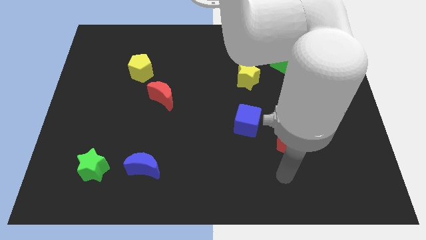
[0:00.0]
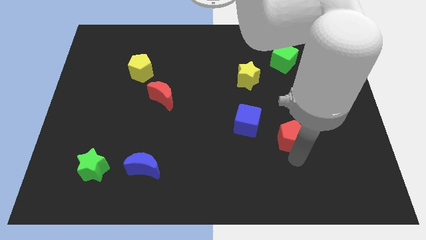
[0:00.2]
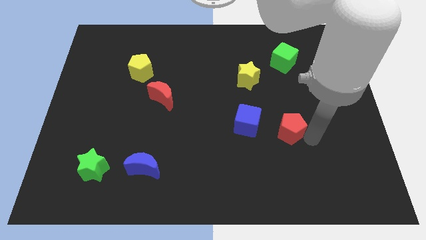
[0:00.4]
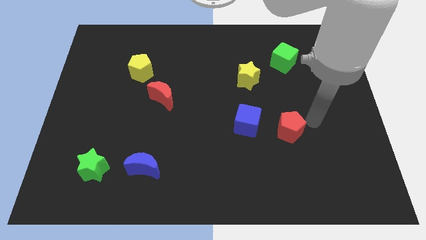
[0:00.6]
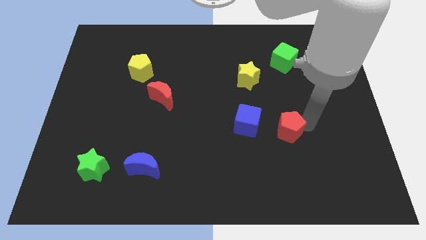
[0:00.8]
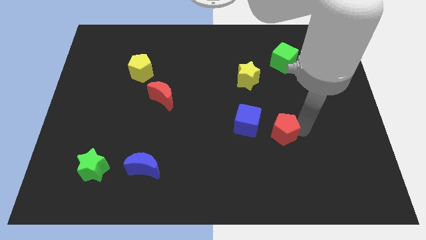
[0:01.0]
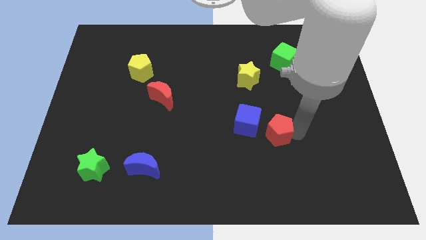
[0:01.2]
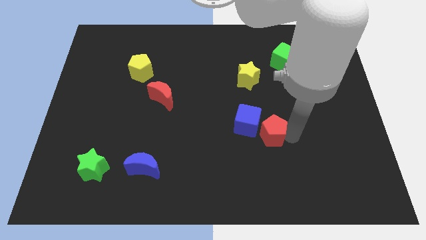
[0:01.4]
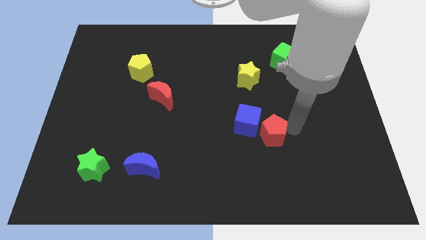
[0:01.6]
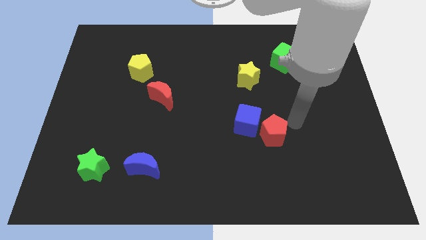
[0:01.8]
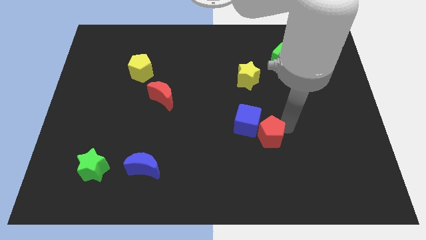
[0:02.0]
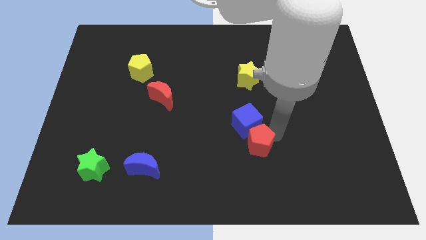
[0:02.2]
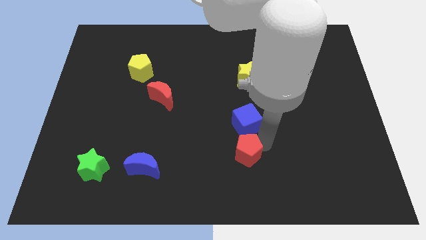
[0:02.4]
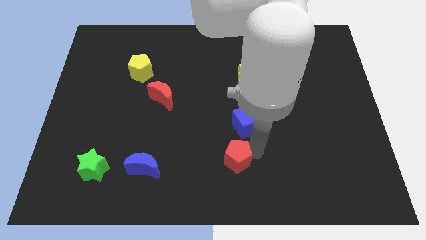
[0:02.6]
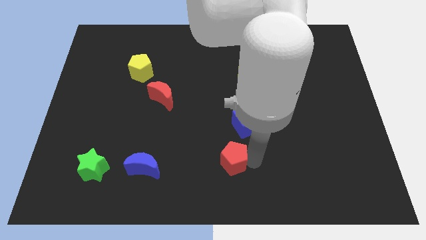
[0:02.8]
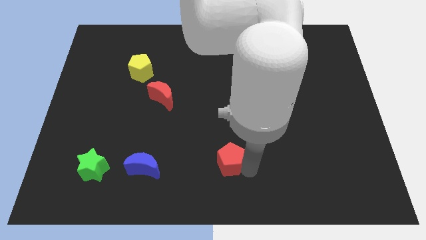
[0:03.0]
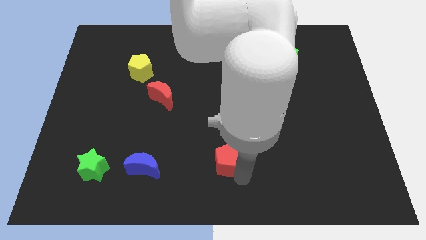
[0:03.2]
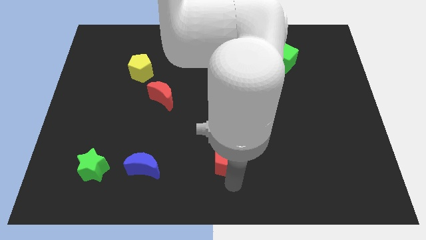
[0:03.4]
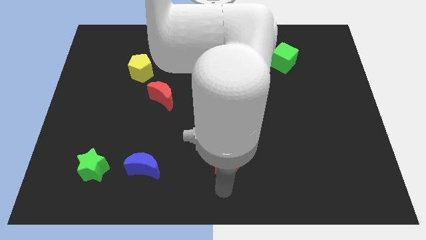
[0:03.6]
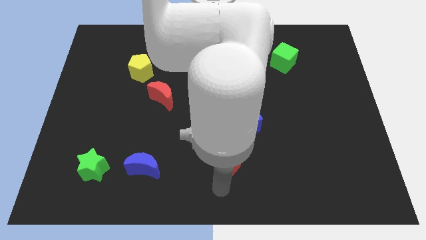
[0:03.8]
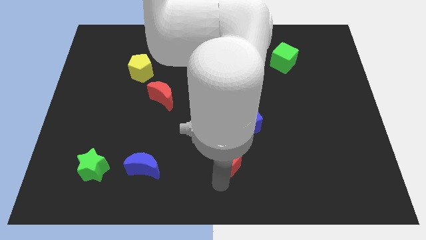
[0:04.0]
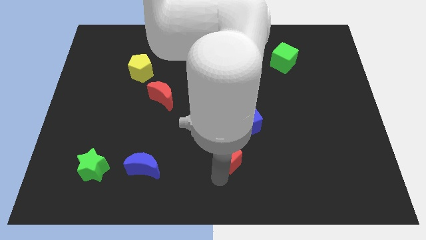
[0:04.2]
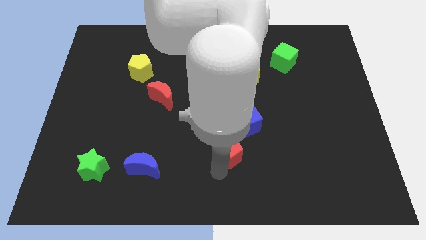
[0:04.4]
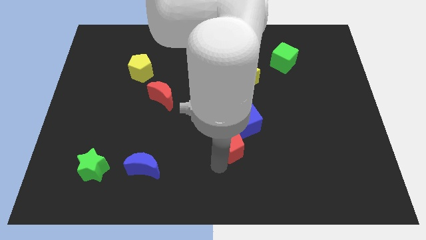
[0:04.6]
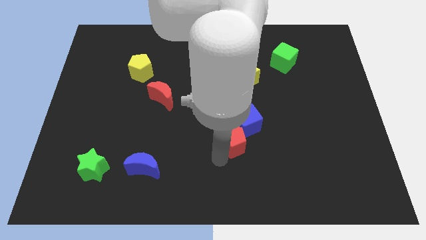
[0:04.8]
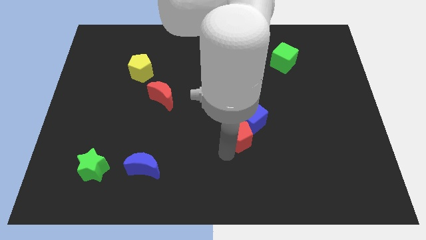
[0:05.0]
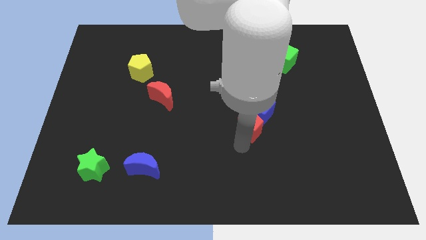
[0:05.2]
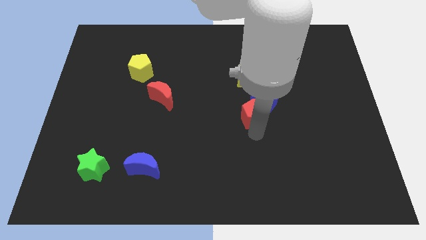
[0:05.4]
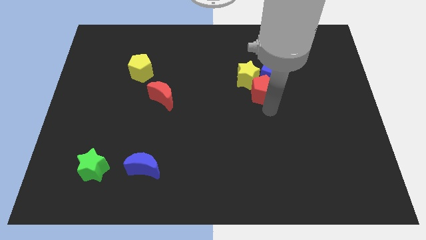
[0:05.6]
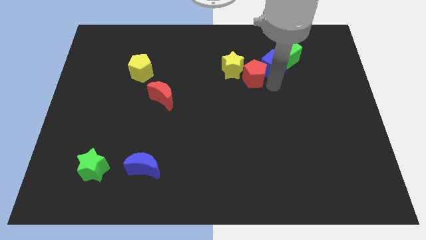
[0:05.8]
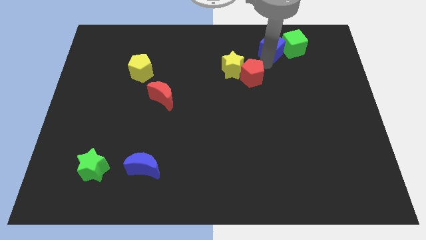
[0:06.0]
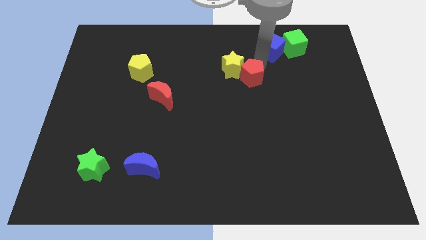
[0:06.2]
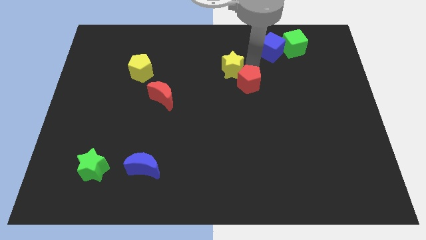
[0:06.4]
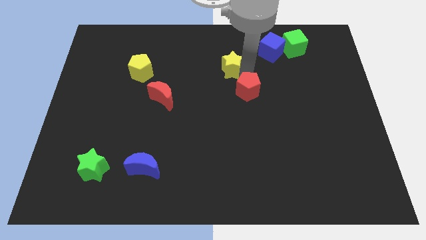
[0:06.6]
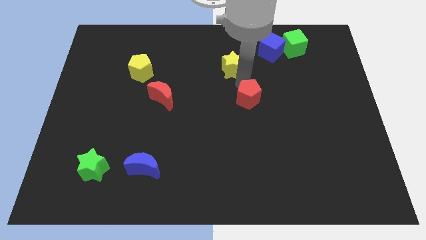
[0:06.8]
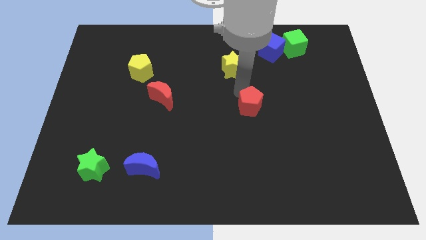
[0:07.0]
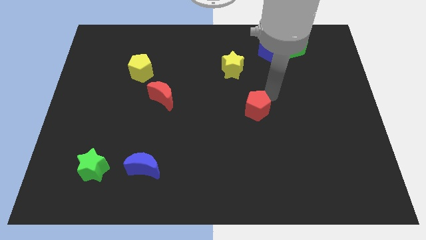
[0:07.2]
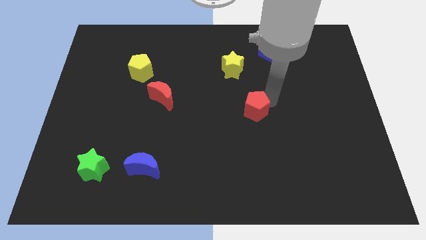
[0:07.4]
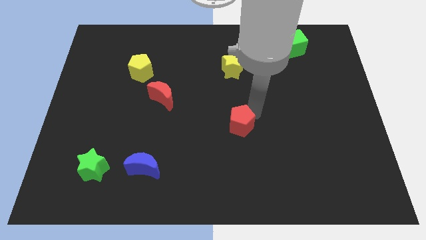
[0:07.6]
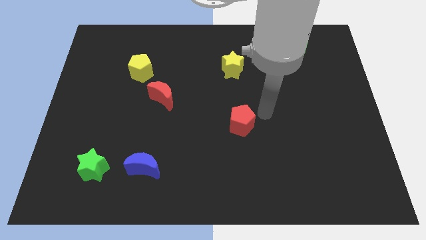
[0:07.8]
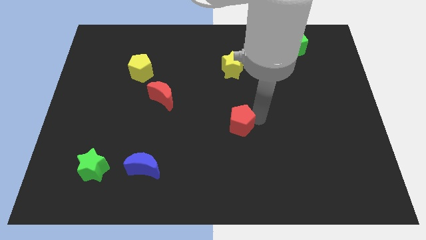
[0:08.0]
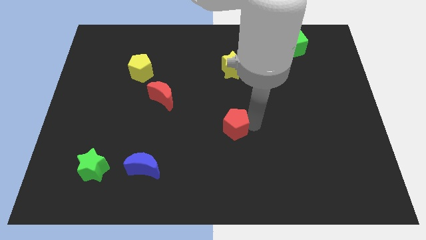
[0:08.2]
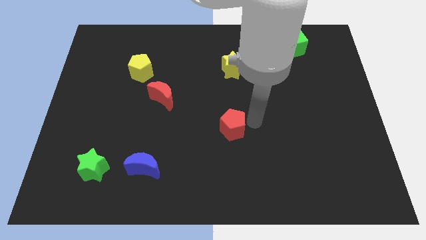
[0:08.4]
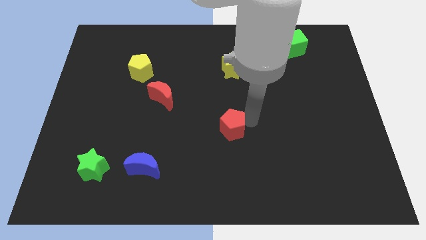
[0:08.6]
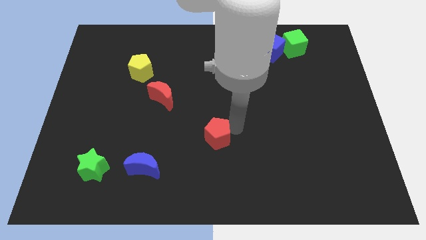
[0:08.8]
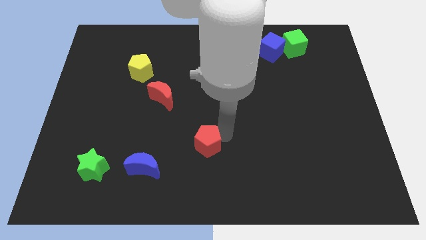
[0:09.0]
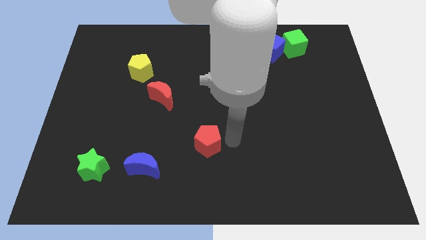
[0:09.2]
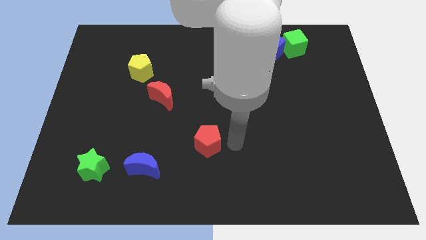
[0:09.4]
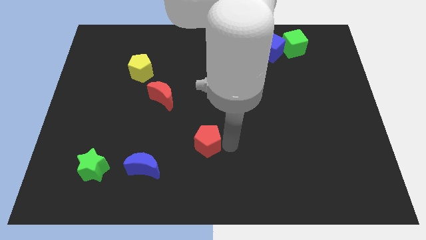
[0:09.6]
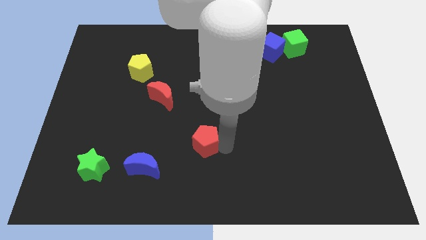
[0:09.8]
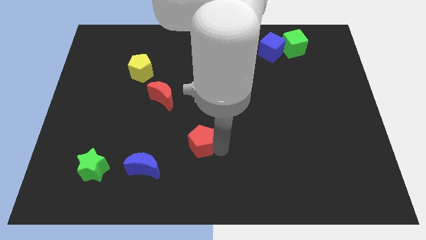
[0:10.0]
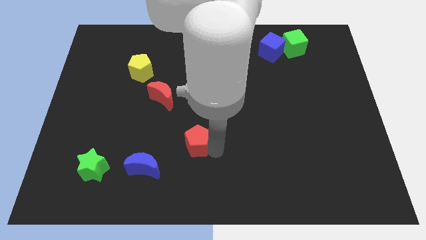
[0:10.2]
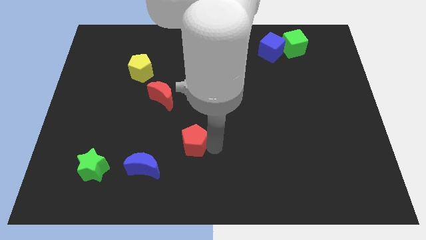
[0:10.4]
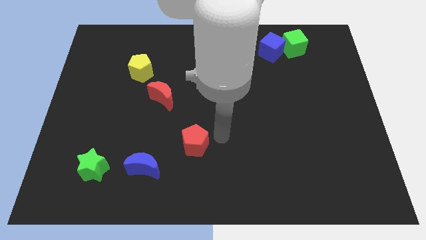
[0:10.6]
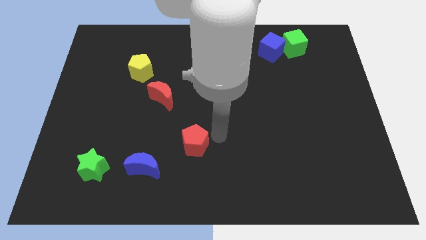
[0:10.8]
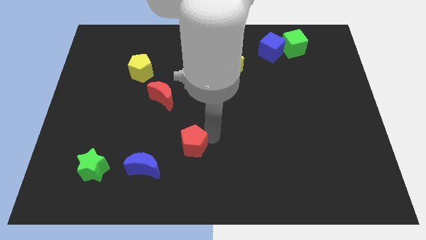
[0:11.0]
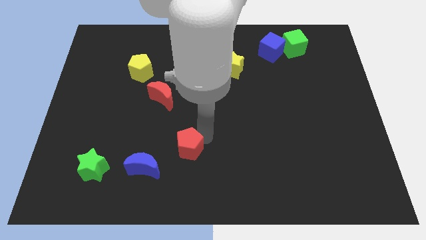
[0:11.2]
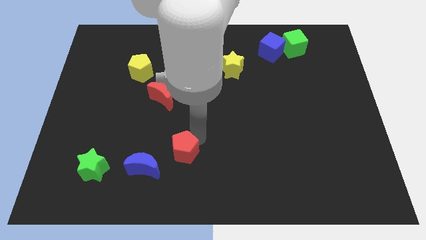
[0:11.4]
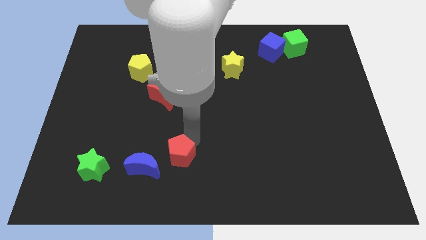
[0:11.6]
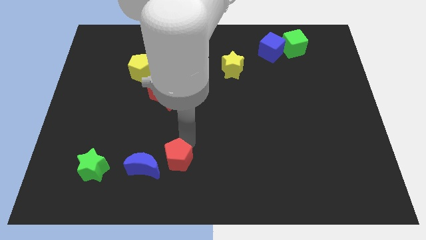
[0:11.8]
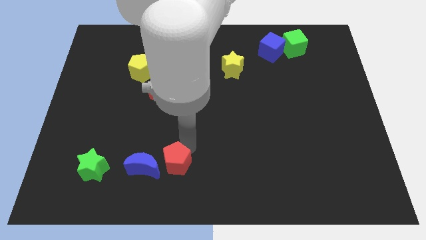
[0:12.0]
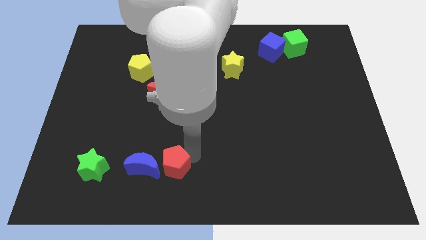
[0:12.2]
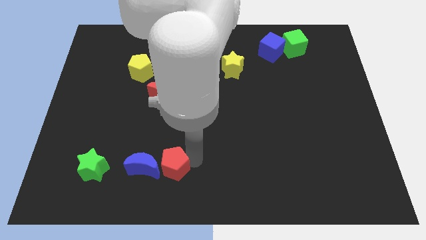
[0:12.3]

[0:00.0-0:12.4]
push the red pentagon towards the blue moon
